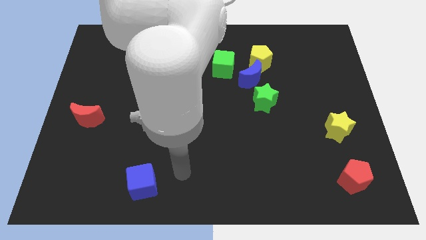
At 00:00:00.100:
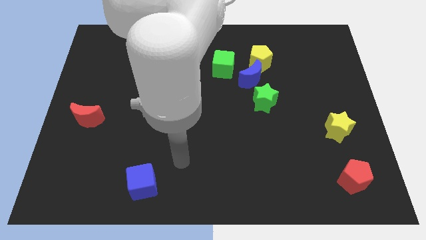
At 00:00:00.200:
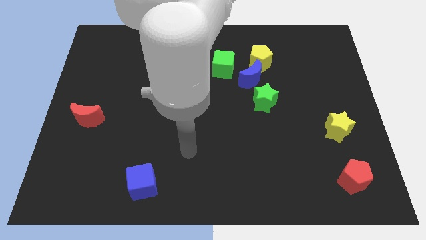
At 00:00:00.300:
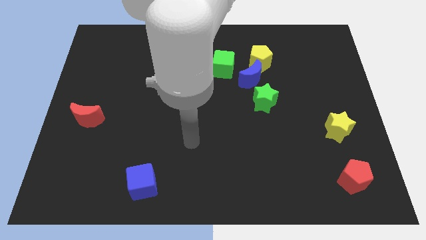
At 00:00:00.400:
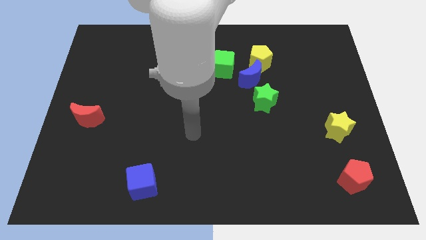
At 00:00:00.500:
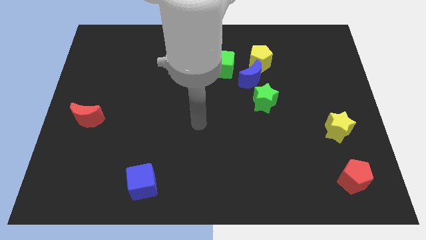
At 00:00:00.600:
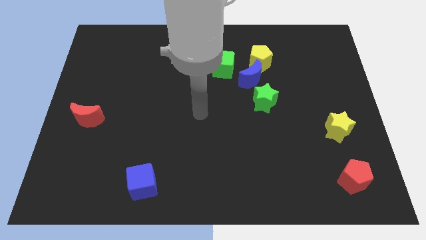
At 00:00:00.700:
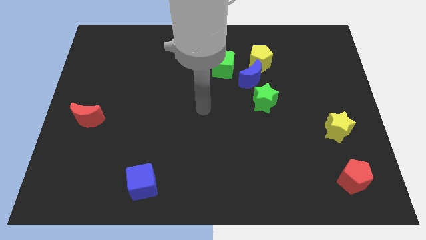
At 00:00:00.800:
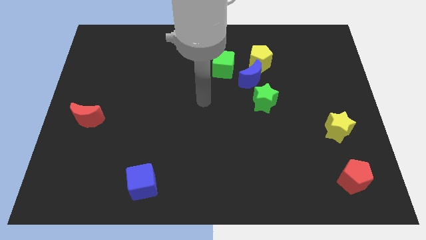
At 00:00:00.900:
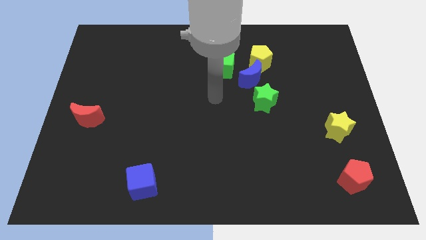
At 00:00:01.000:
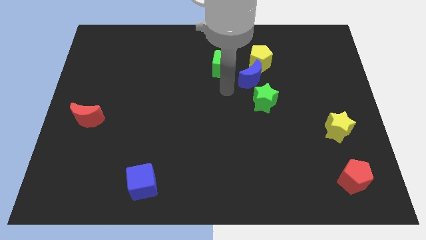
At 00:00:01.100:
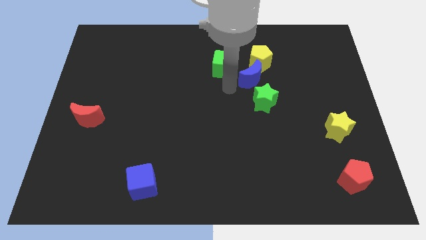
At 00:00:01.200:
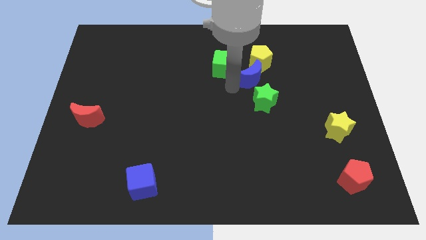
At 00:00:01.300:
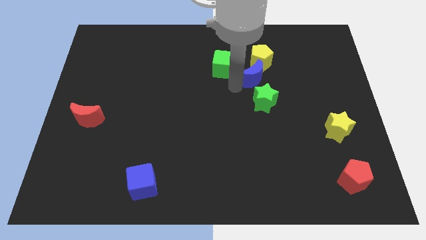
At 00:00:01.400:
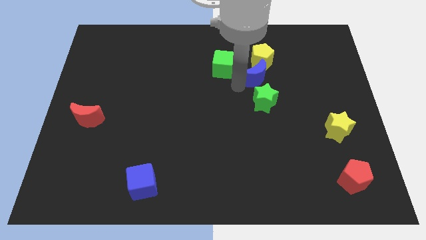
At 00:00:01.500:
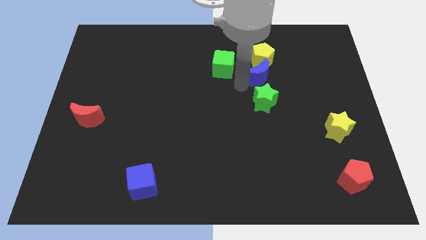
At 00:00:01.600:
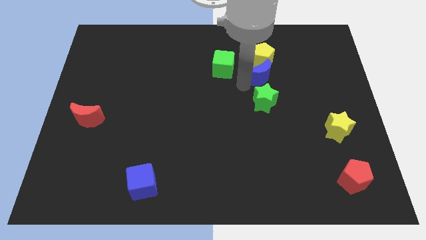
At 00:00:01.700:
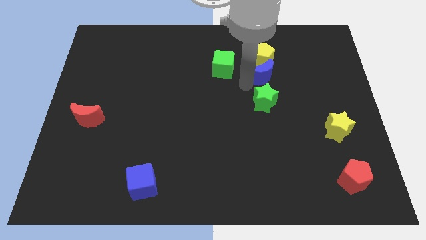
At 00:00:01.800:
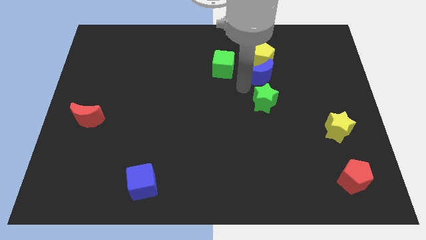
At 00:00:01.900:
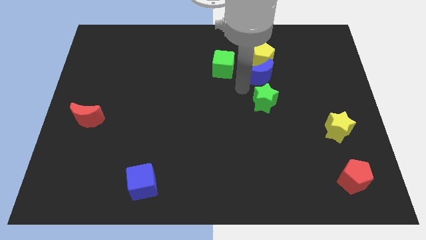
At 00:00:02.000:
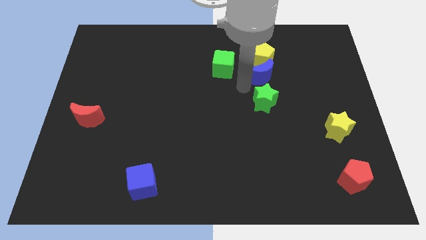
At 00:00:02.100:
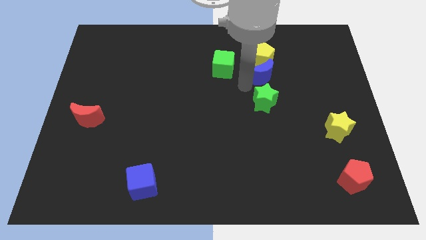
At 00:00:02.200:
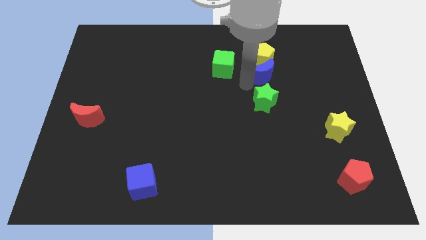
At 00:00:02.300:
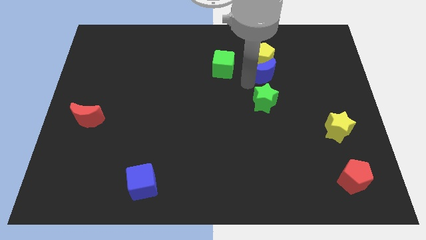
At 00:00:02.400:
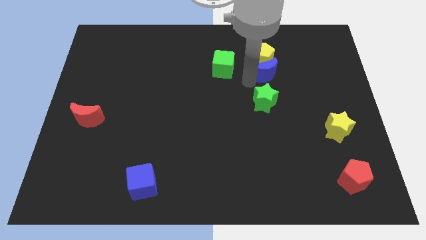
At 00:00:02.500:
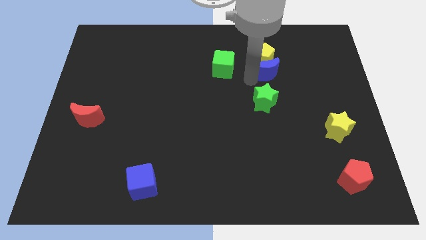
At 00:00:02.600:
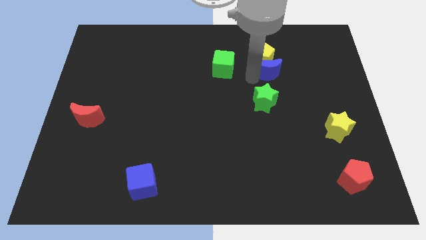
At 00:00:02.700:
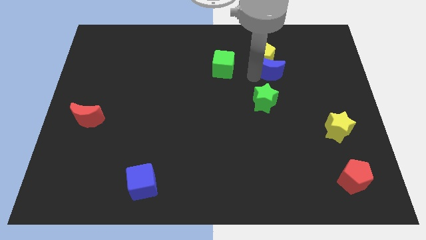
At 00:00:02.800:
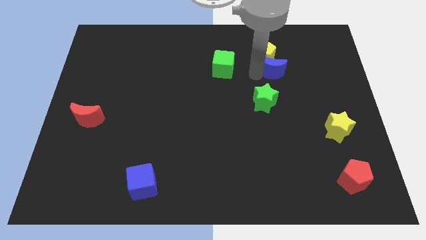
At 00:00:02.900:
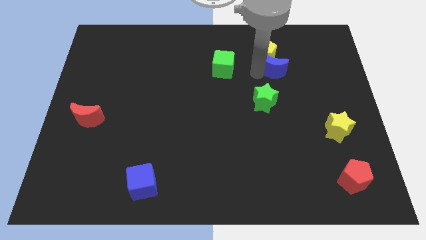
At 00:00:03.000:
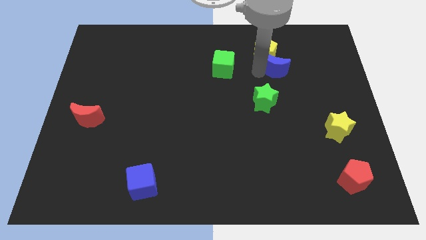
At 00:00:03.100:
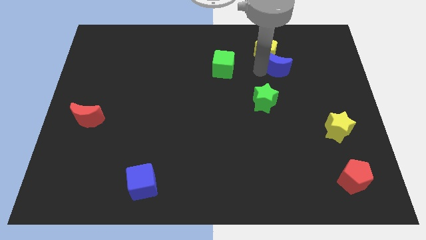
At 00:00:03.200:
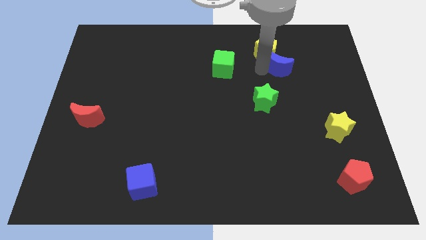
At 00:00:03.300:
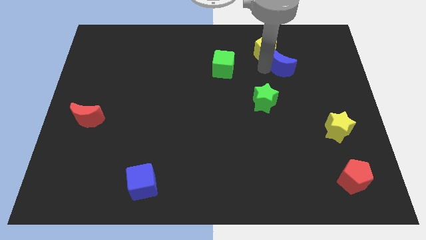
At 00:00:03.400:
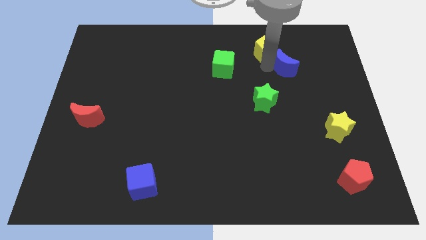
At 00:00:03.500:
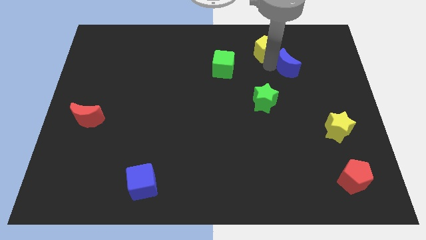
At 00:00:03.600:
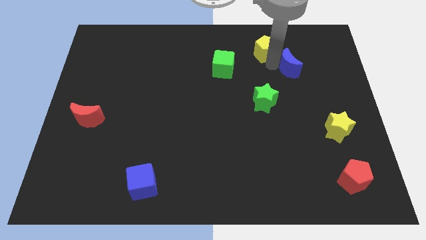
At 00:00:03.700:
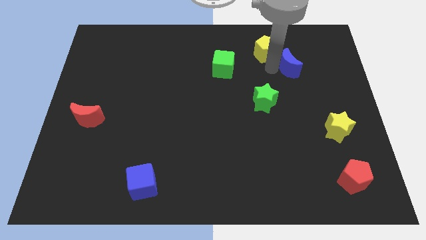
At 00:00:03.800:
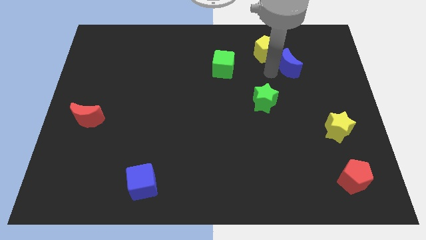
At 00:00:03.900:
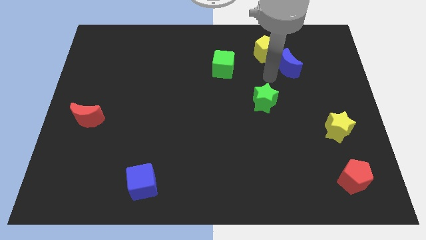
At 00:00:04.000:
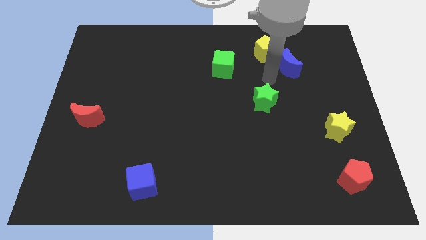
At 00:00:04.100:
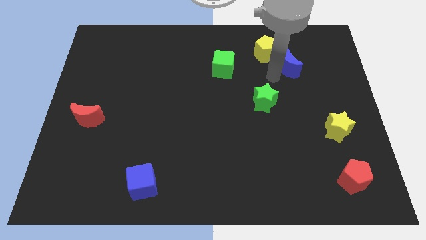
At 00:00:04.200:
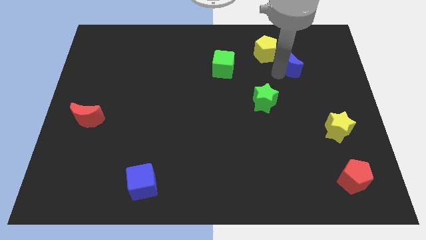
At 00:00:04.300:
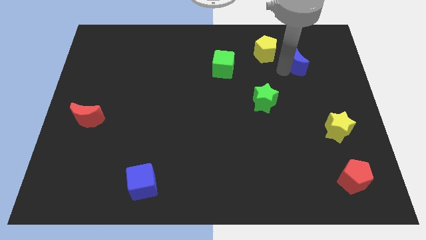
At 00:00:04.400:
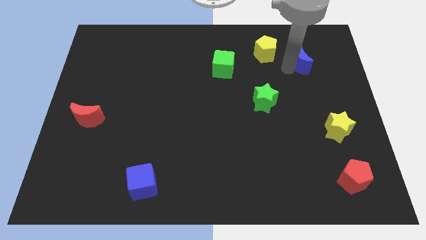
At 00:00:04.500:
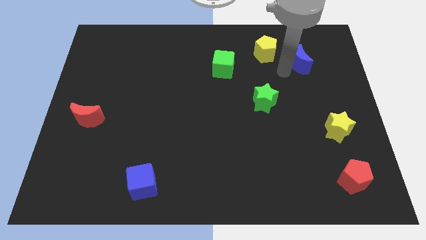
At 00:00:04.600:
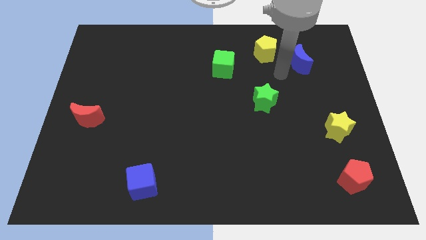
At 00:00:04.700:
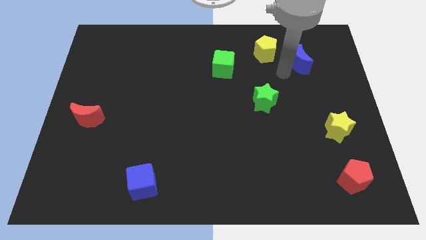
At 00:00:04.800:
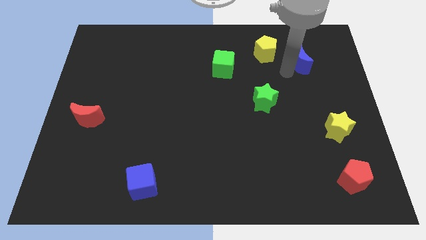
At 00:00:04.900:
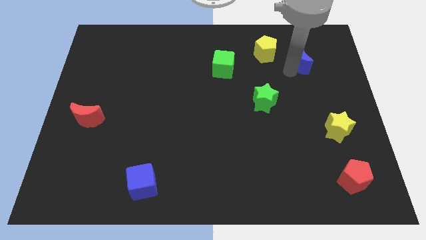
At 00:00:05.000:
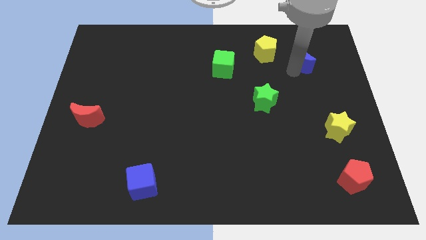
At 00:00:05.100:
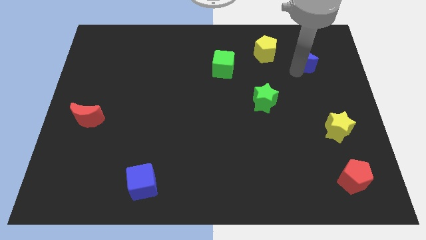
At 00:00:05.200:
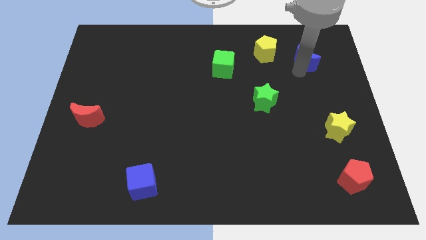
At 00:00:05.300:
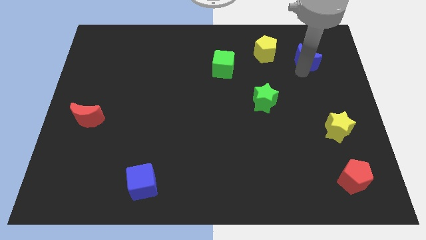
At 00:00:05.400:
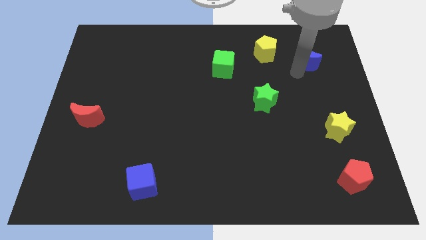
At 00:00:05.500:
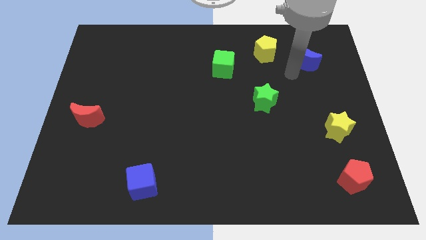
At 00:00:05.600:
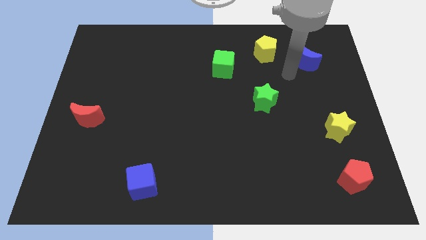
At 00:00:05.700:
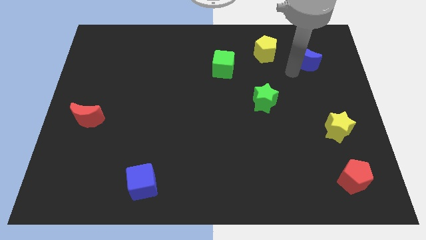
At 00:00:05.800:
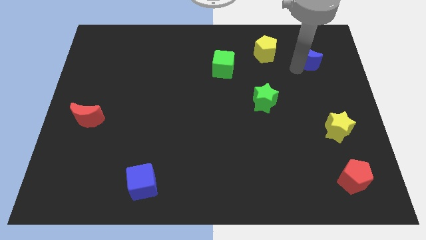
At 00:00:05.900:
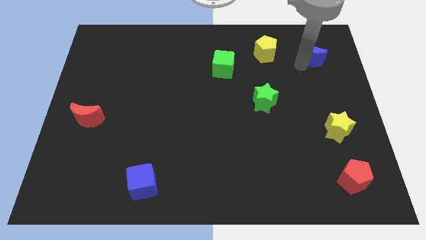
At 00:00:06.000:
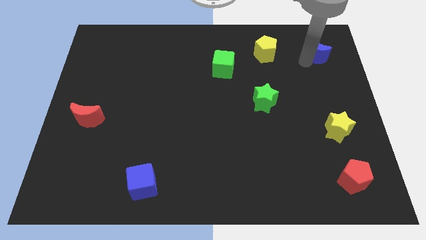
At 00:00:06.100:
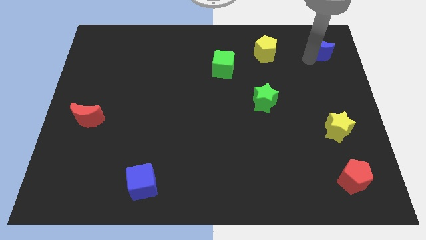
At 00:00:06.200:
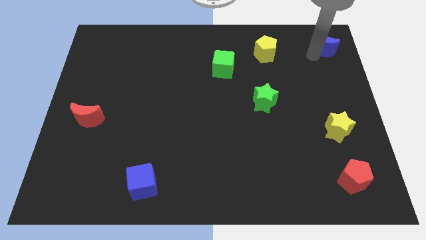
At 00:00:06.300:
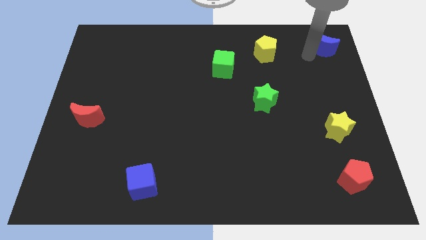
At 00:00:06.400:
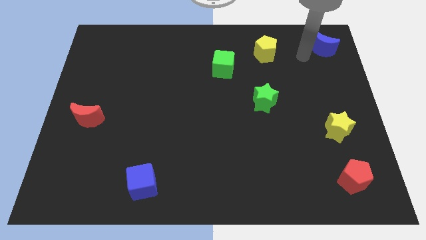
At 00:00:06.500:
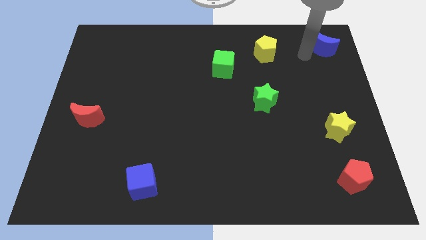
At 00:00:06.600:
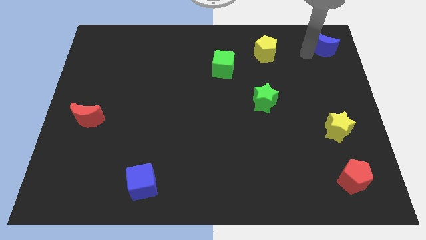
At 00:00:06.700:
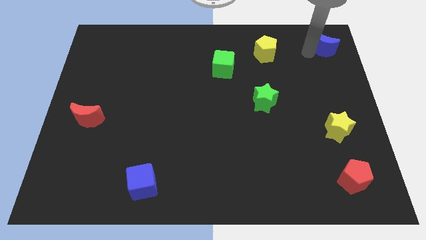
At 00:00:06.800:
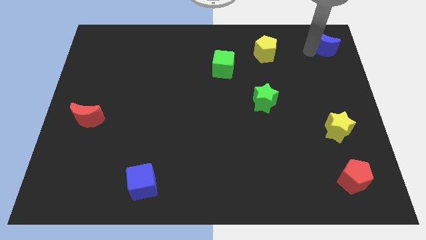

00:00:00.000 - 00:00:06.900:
move the blue moon to the top right
